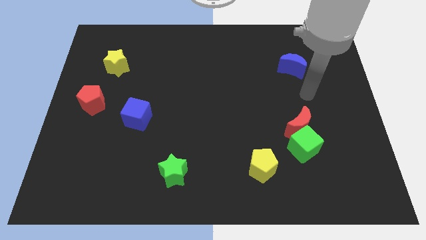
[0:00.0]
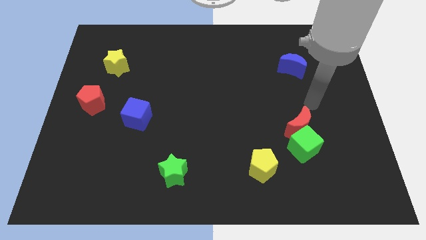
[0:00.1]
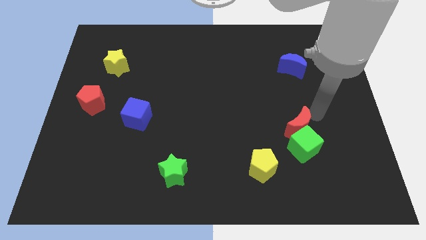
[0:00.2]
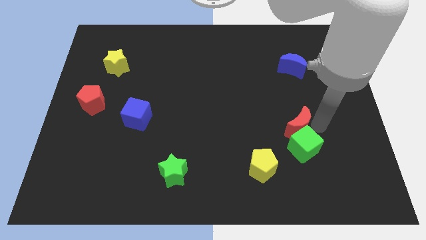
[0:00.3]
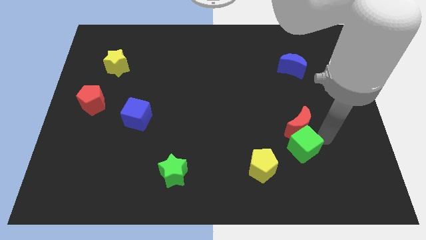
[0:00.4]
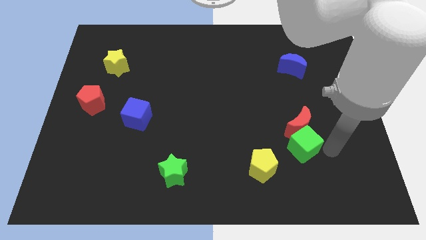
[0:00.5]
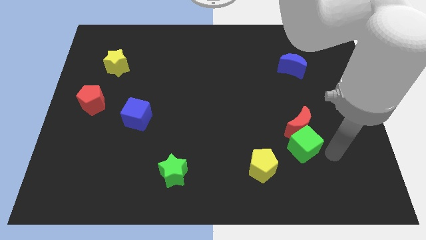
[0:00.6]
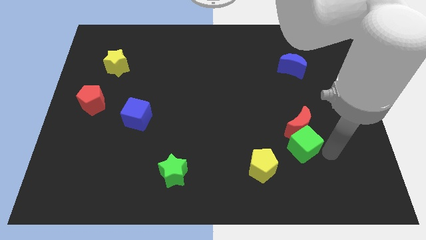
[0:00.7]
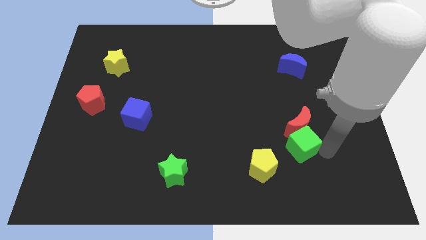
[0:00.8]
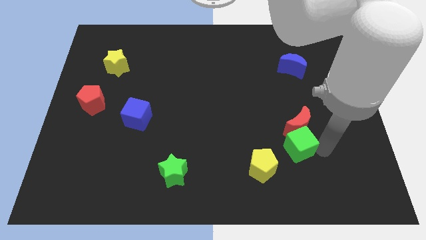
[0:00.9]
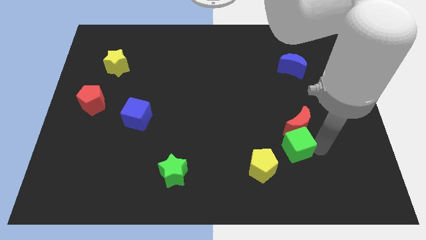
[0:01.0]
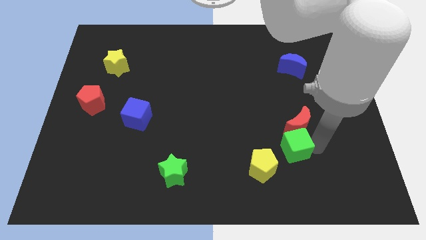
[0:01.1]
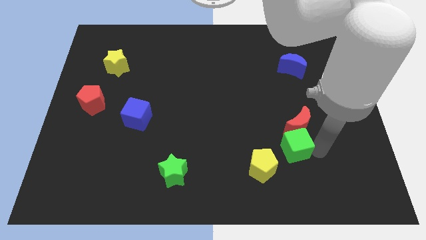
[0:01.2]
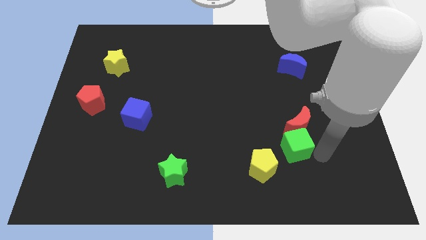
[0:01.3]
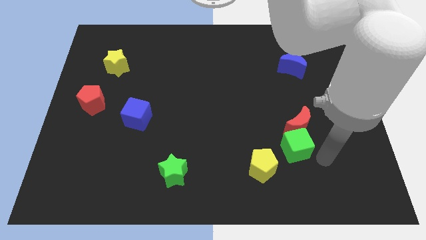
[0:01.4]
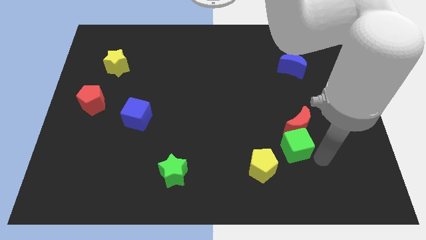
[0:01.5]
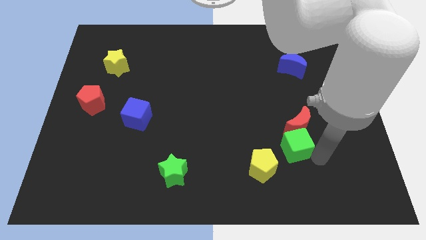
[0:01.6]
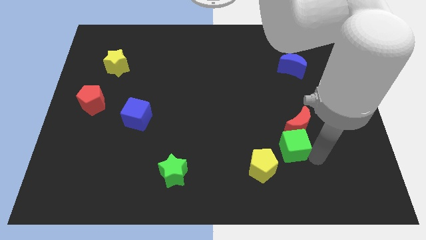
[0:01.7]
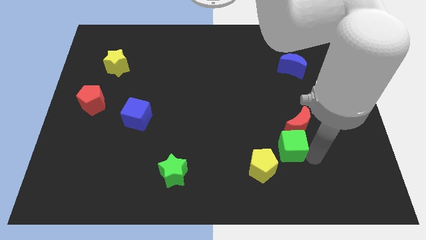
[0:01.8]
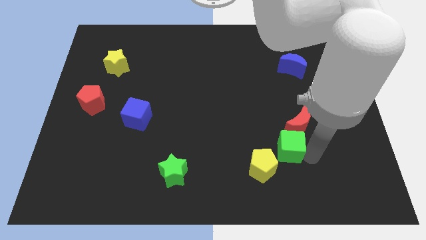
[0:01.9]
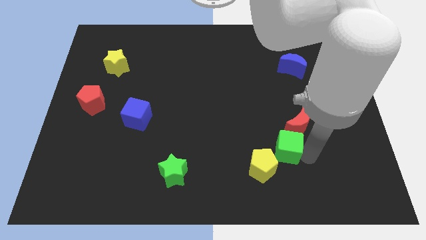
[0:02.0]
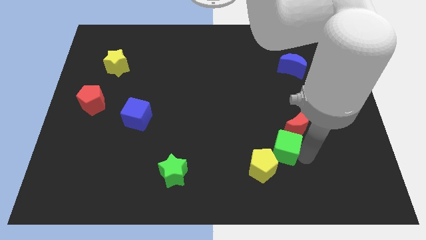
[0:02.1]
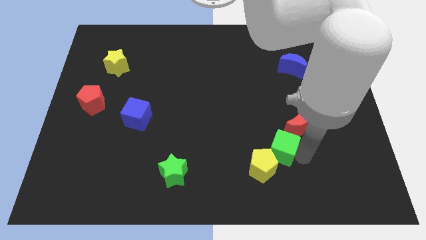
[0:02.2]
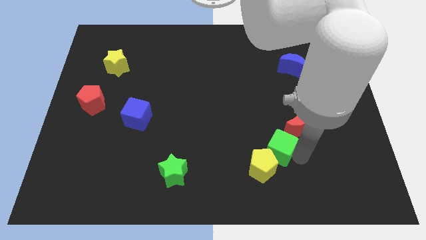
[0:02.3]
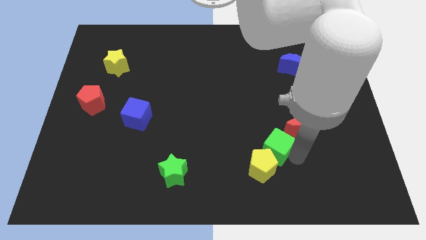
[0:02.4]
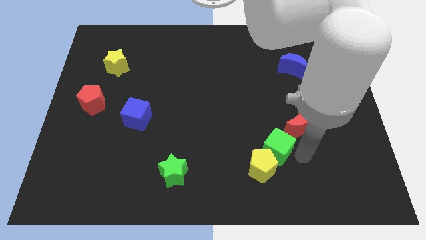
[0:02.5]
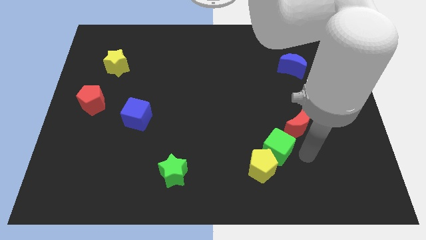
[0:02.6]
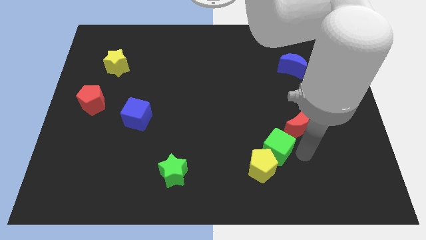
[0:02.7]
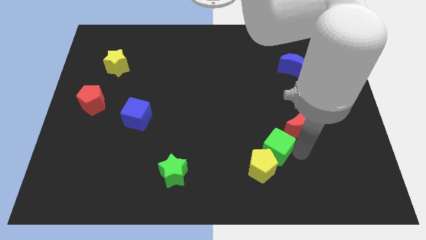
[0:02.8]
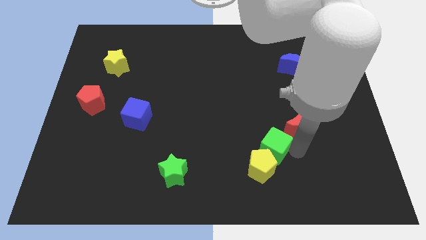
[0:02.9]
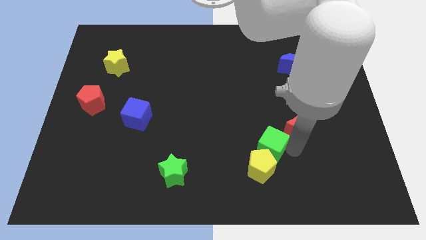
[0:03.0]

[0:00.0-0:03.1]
move the green cube to the left a bit

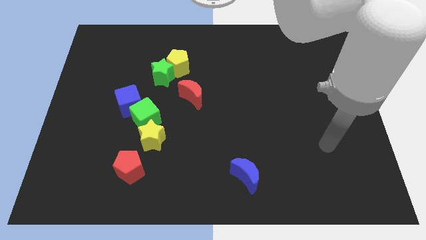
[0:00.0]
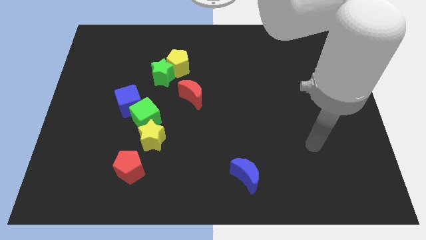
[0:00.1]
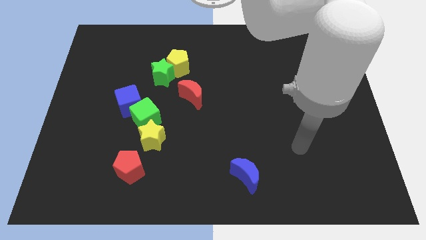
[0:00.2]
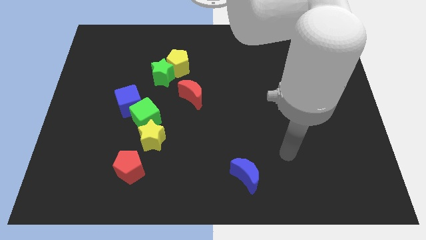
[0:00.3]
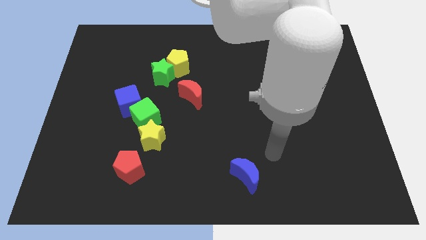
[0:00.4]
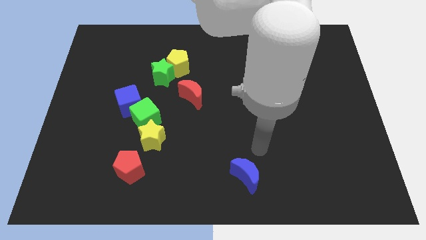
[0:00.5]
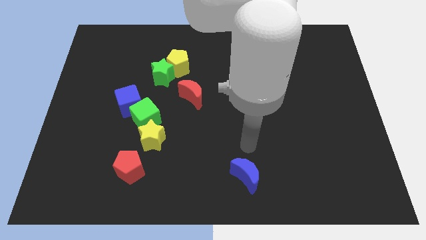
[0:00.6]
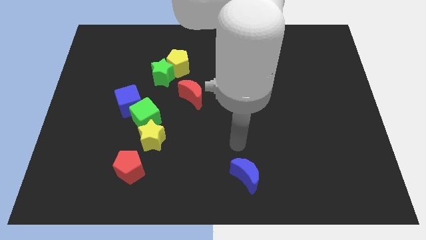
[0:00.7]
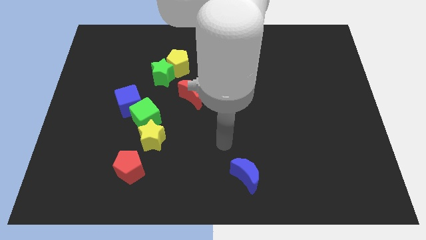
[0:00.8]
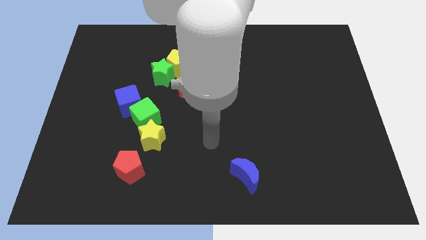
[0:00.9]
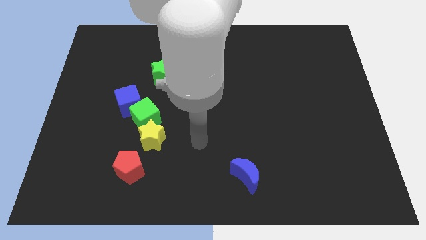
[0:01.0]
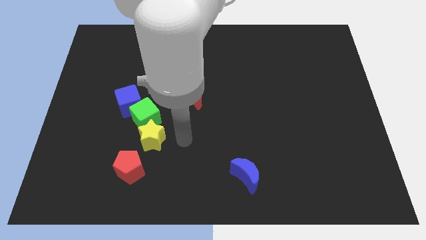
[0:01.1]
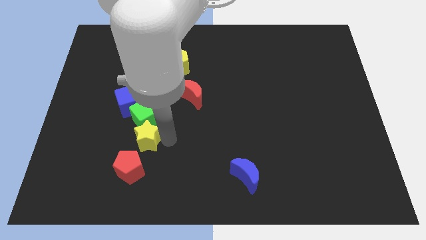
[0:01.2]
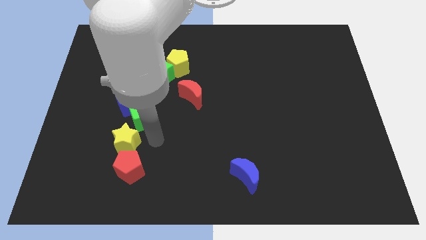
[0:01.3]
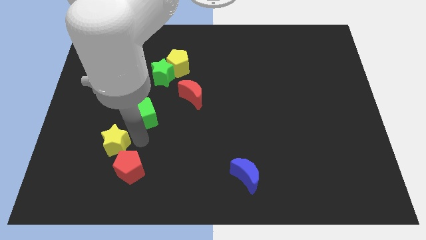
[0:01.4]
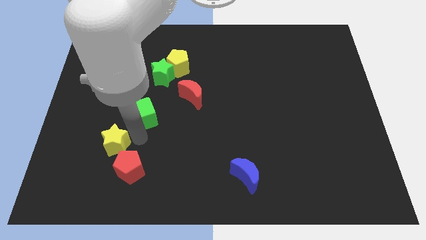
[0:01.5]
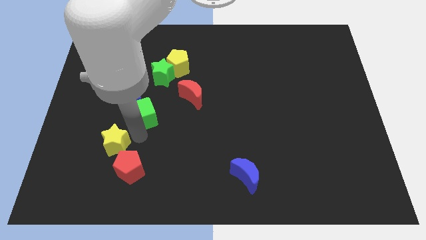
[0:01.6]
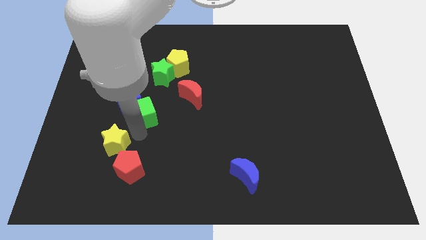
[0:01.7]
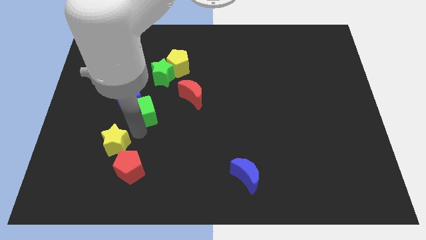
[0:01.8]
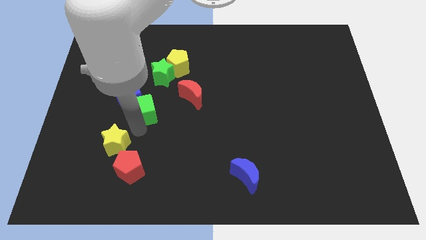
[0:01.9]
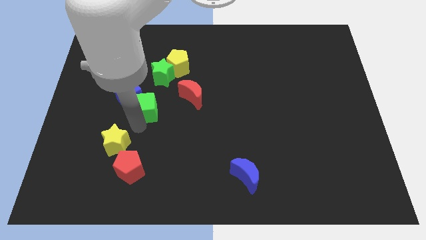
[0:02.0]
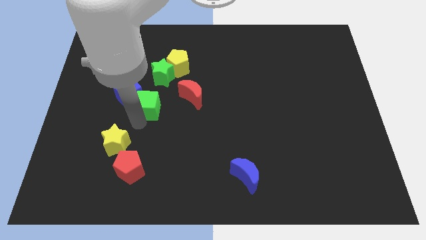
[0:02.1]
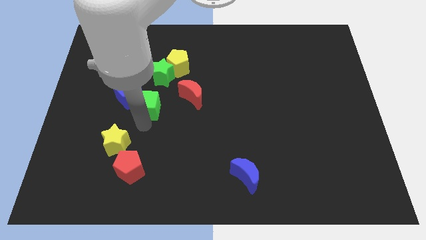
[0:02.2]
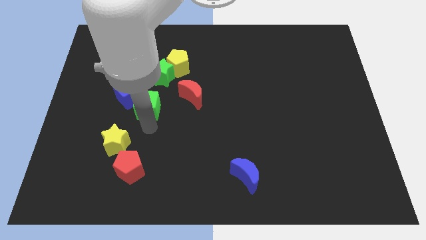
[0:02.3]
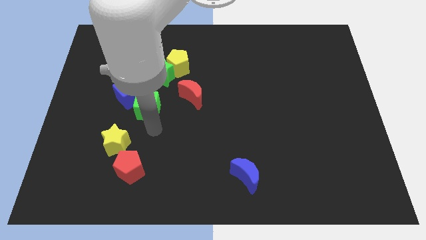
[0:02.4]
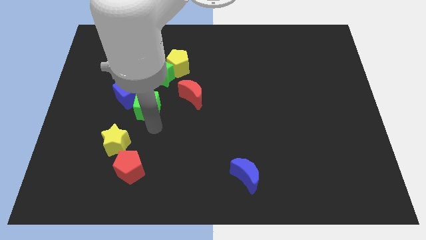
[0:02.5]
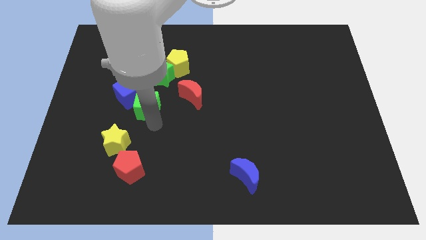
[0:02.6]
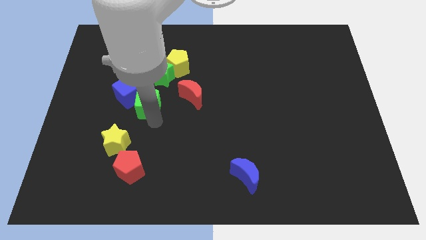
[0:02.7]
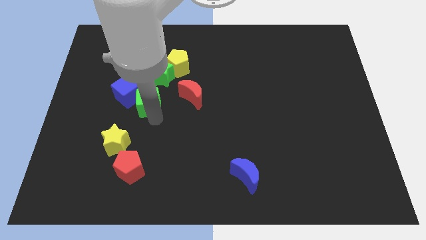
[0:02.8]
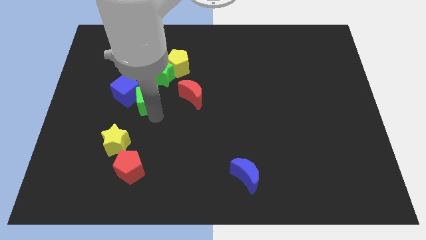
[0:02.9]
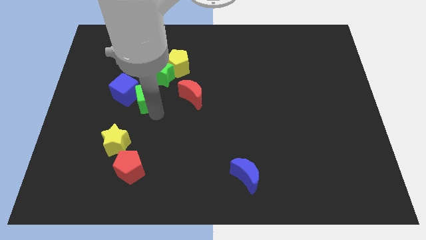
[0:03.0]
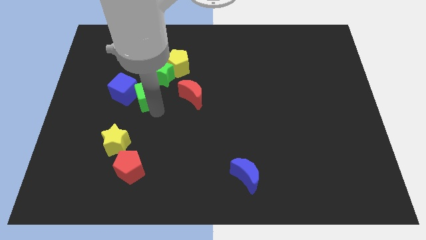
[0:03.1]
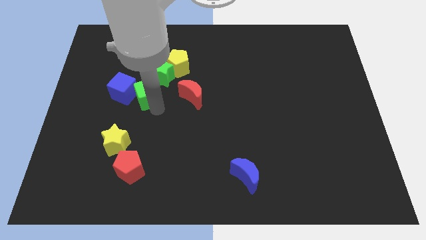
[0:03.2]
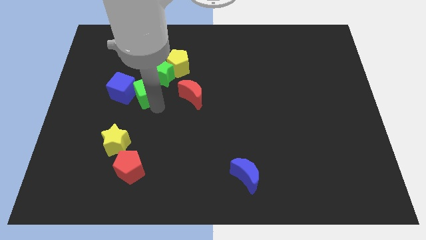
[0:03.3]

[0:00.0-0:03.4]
slide the green cube up slightly

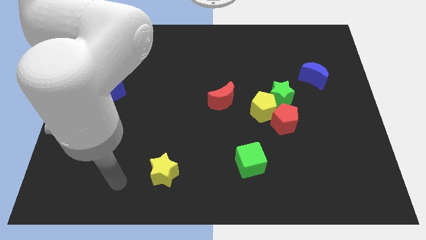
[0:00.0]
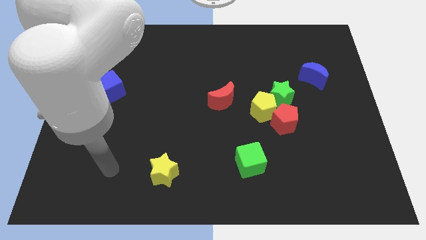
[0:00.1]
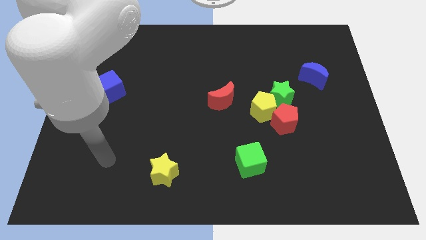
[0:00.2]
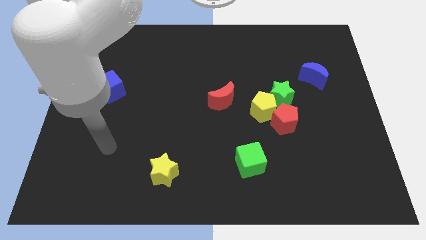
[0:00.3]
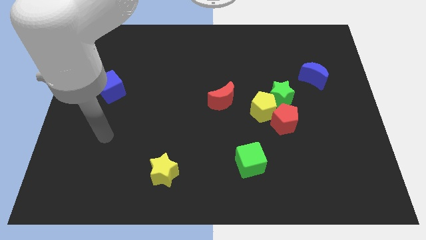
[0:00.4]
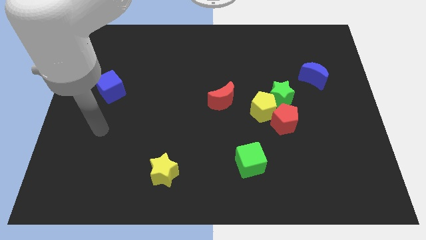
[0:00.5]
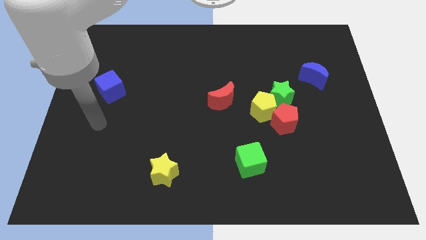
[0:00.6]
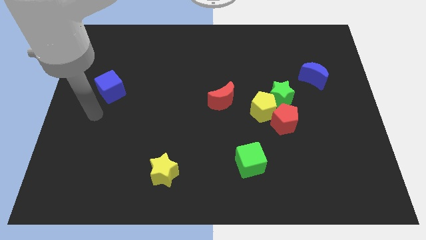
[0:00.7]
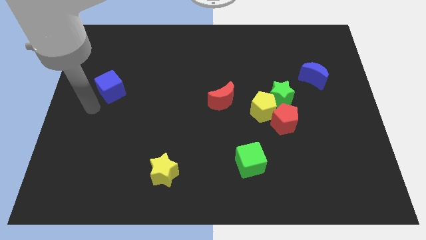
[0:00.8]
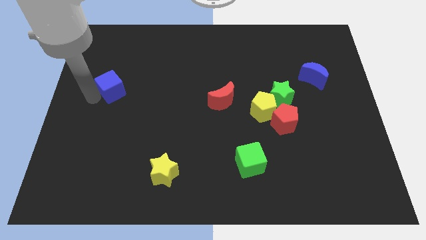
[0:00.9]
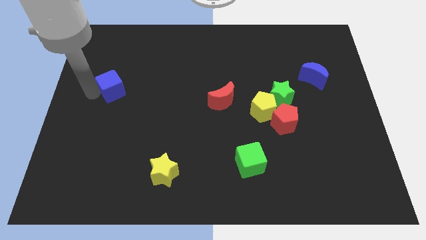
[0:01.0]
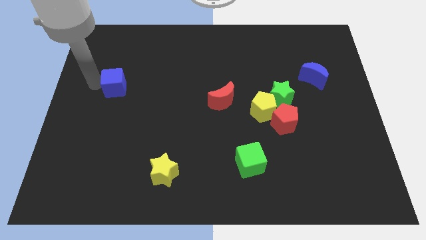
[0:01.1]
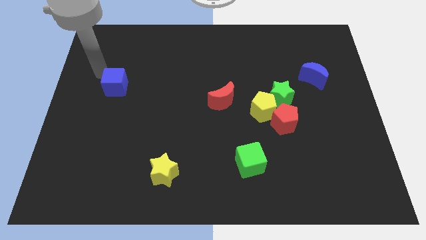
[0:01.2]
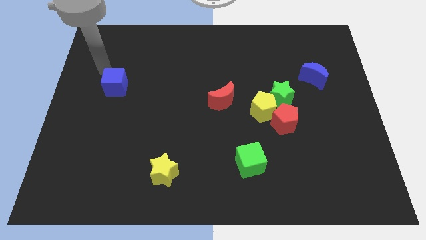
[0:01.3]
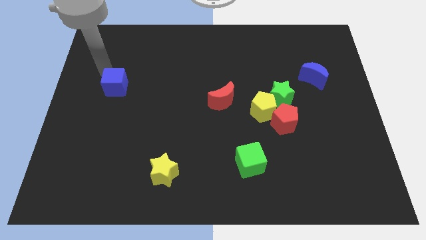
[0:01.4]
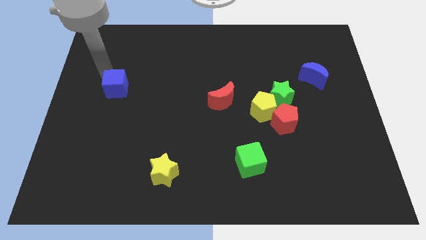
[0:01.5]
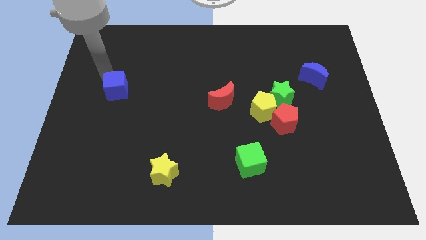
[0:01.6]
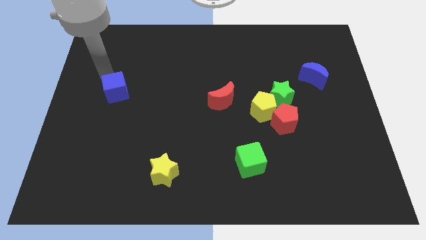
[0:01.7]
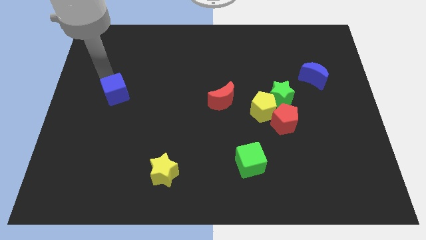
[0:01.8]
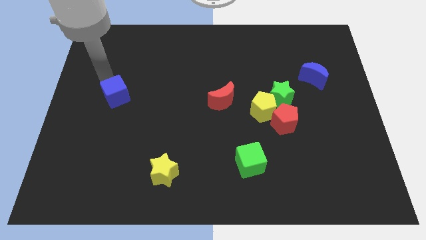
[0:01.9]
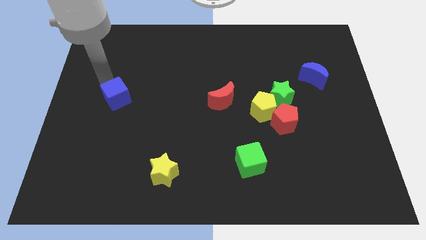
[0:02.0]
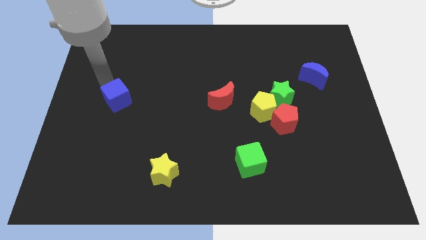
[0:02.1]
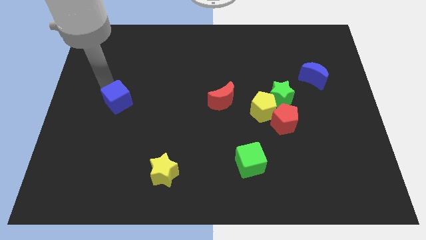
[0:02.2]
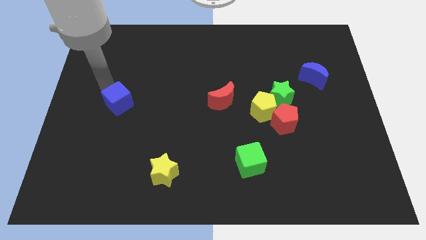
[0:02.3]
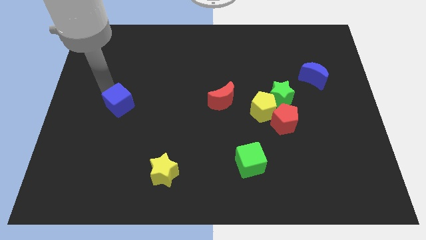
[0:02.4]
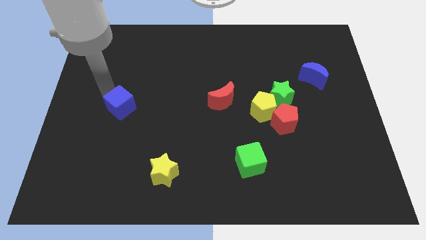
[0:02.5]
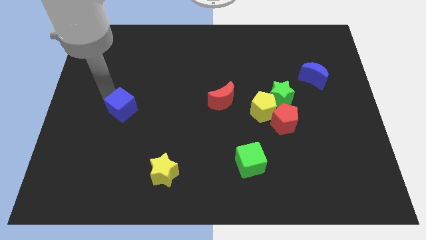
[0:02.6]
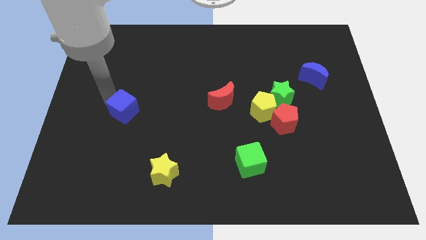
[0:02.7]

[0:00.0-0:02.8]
slide the blue cube slightly downwards and then right
